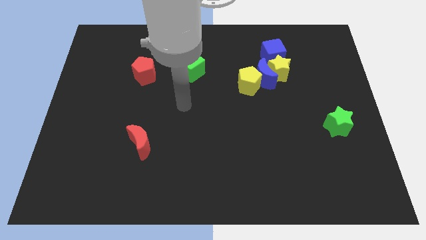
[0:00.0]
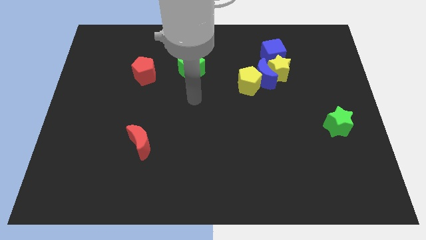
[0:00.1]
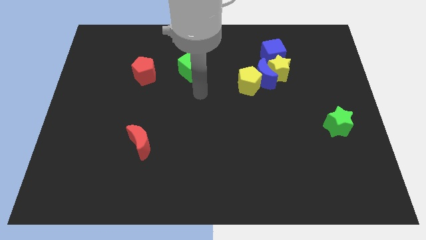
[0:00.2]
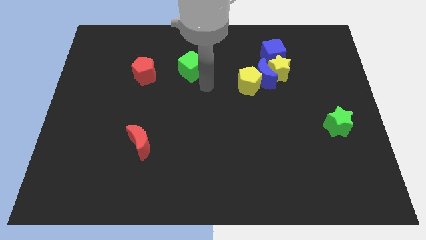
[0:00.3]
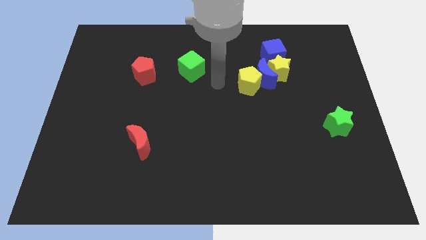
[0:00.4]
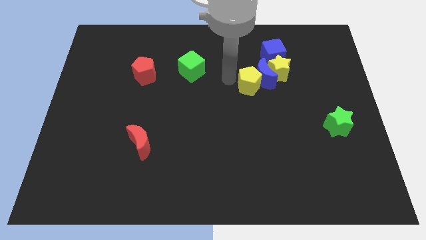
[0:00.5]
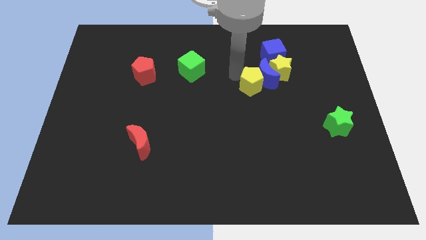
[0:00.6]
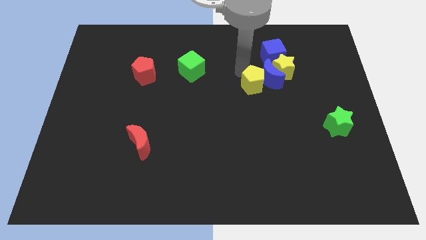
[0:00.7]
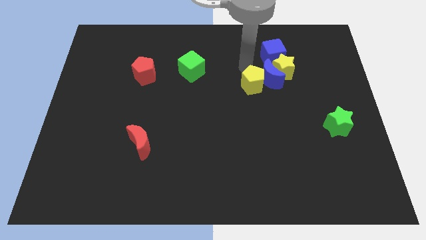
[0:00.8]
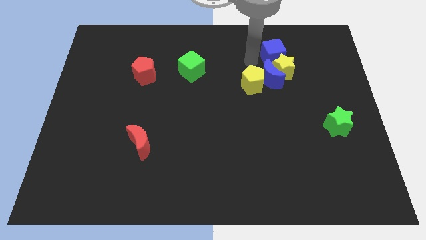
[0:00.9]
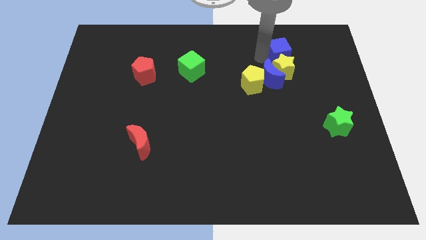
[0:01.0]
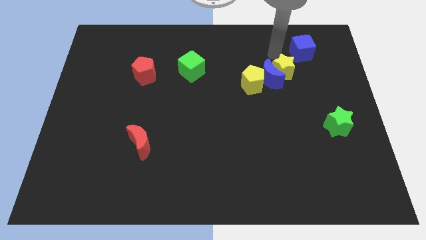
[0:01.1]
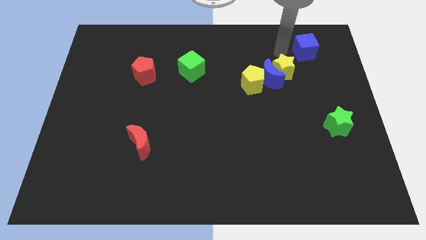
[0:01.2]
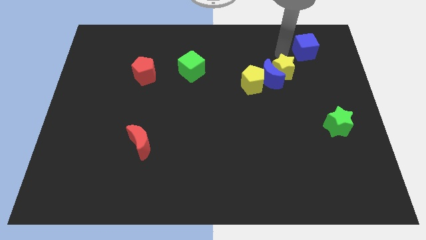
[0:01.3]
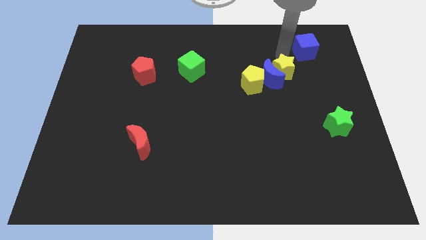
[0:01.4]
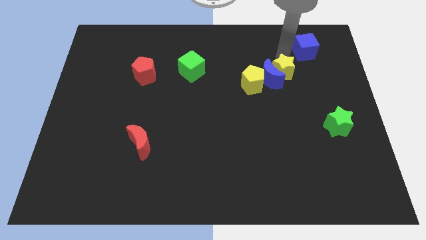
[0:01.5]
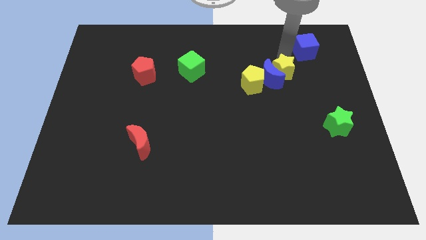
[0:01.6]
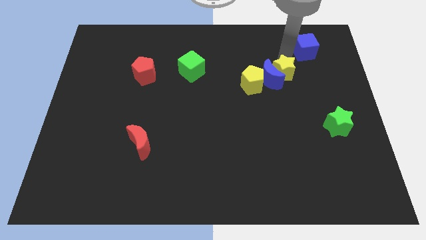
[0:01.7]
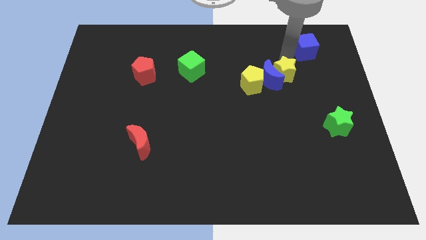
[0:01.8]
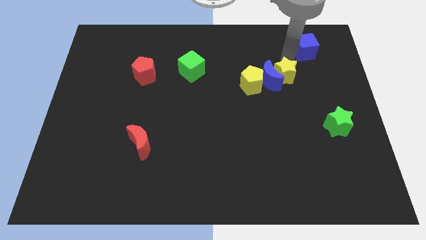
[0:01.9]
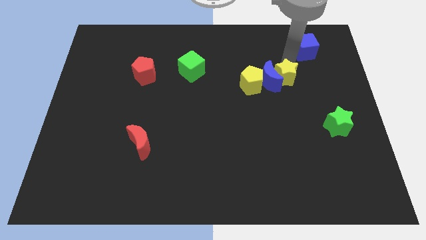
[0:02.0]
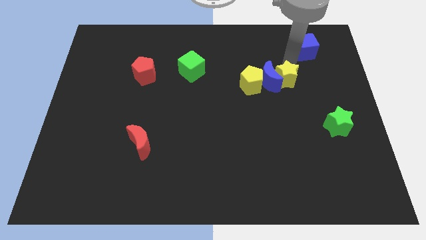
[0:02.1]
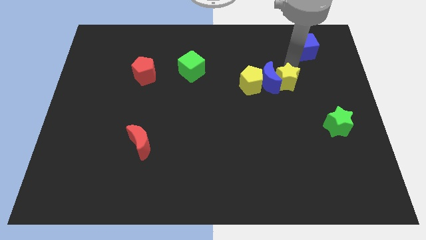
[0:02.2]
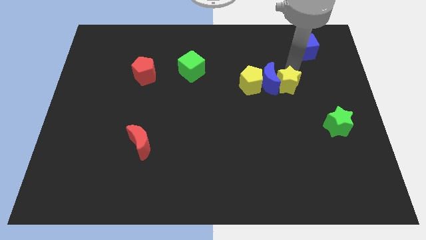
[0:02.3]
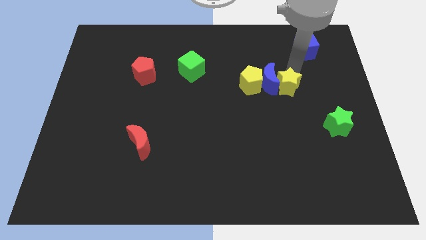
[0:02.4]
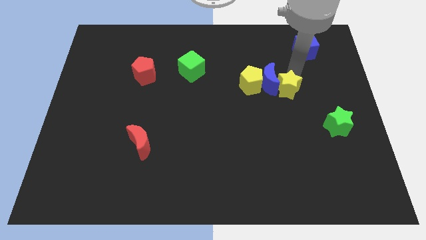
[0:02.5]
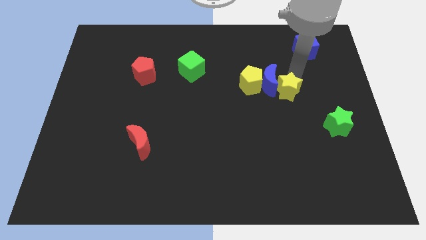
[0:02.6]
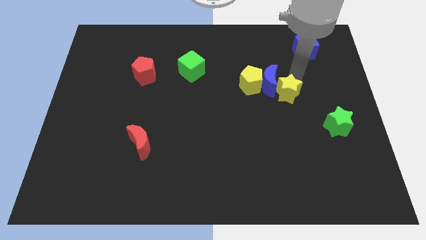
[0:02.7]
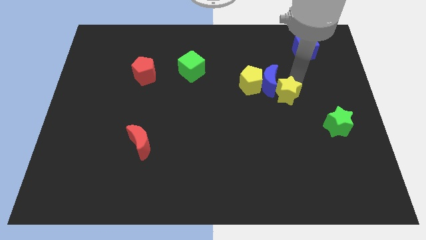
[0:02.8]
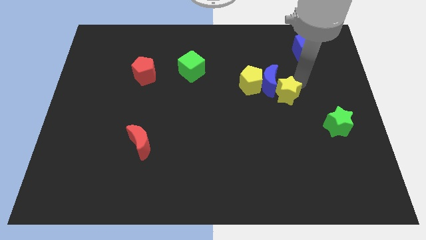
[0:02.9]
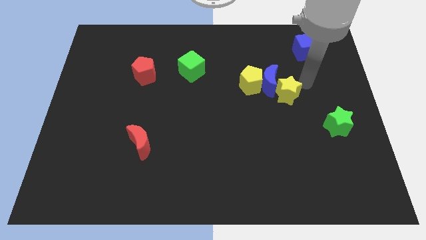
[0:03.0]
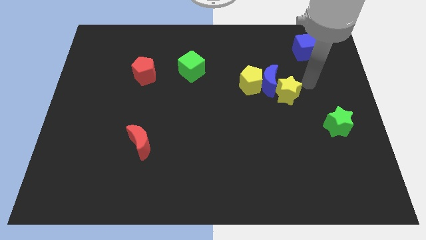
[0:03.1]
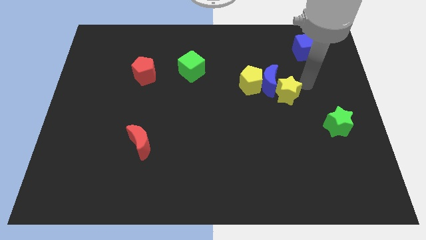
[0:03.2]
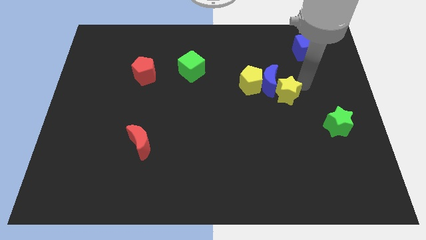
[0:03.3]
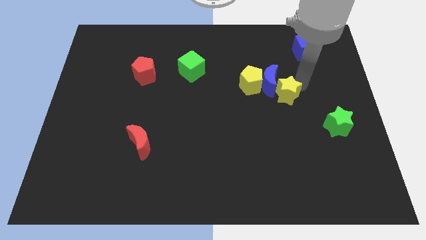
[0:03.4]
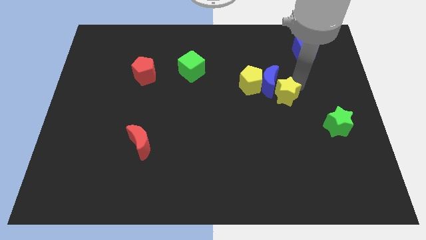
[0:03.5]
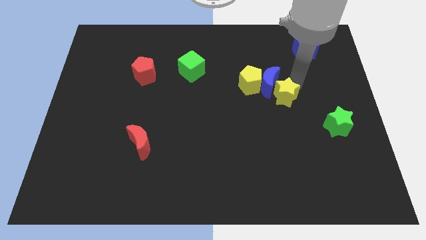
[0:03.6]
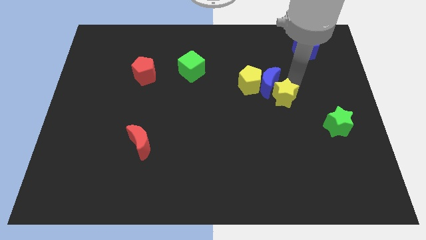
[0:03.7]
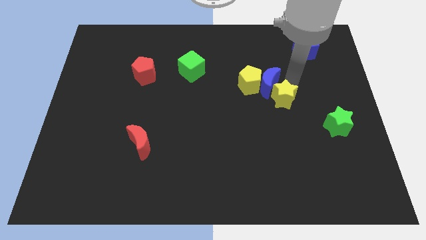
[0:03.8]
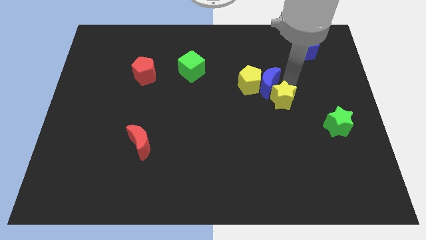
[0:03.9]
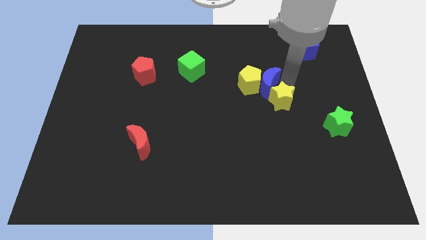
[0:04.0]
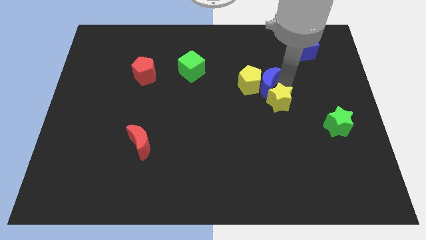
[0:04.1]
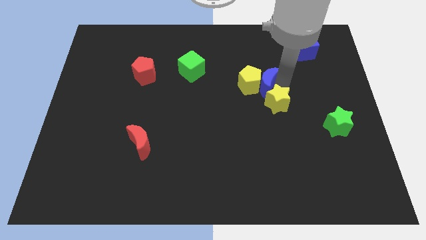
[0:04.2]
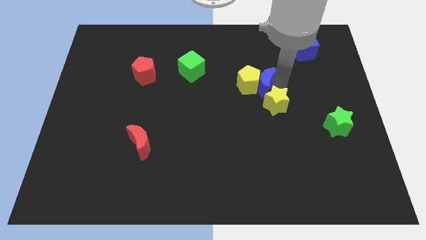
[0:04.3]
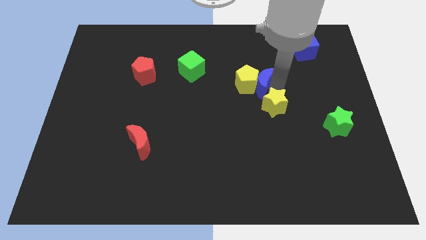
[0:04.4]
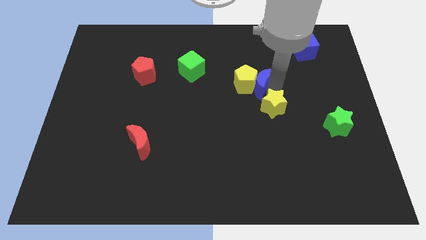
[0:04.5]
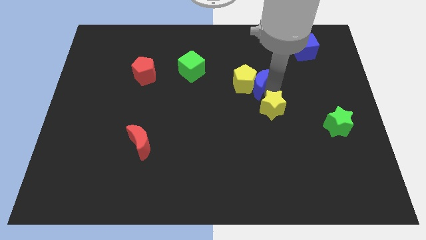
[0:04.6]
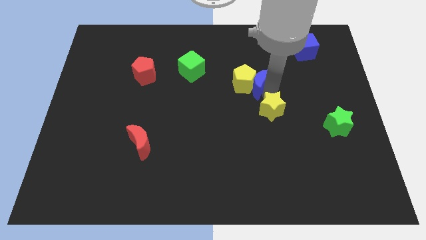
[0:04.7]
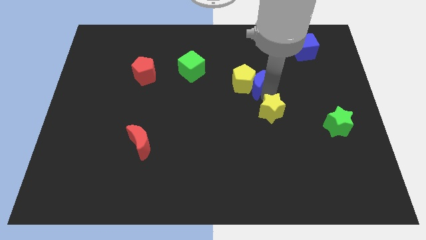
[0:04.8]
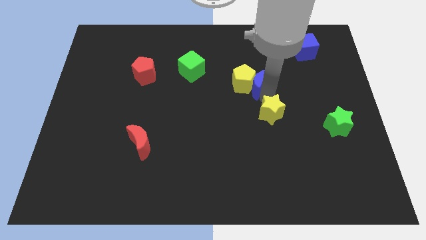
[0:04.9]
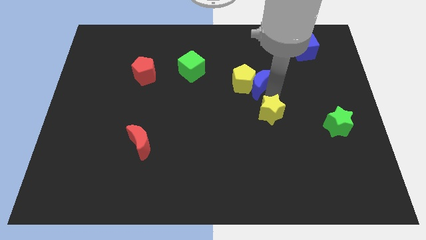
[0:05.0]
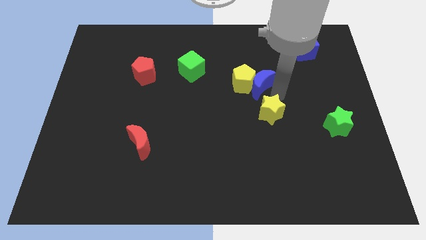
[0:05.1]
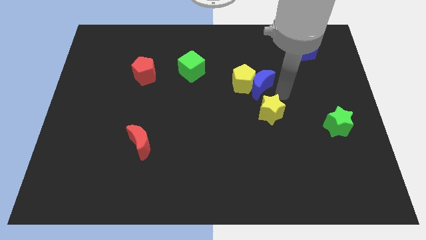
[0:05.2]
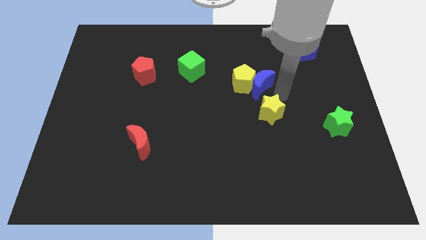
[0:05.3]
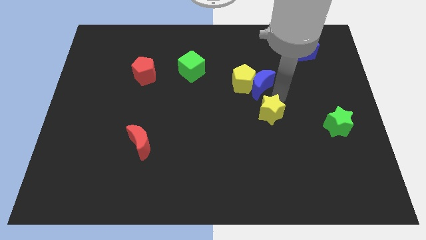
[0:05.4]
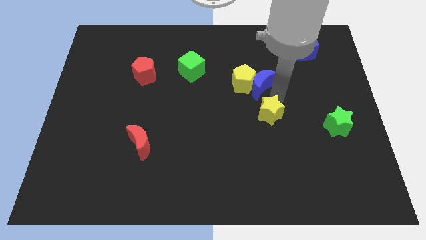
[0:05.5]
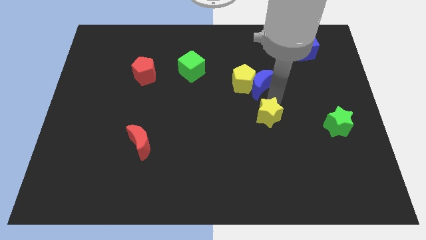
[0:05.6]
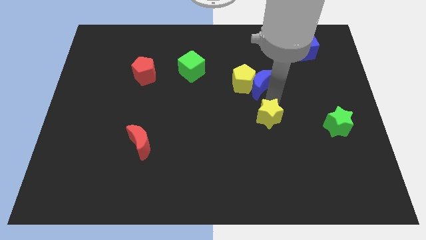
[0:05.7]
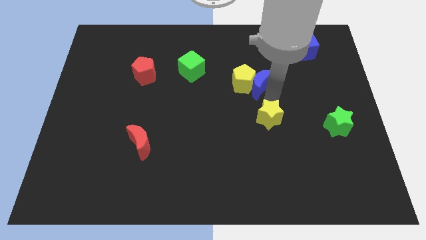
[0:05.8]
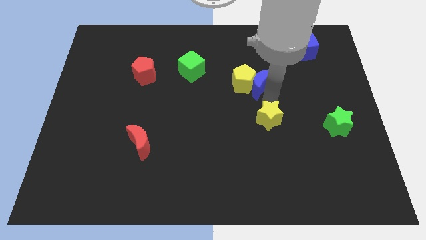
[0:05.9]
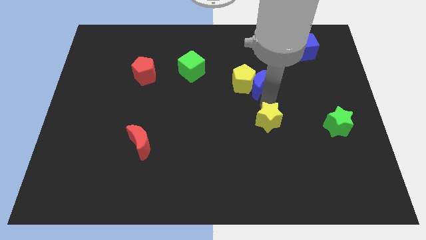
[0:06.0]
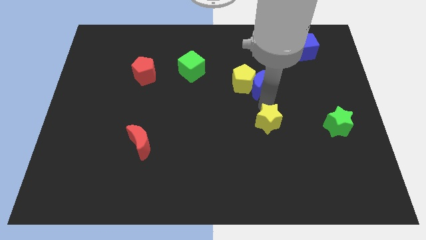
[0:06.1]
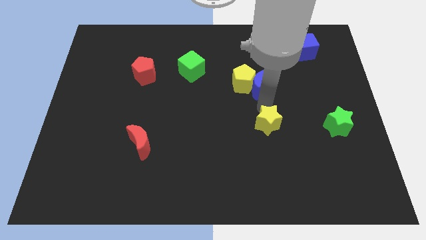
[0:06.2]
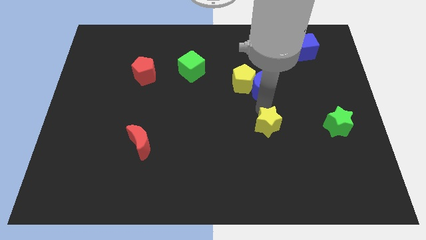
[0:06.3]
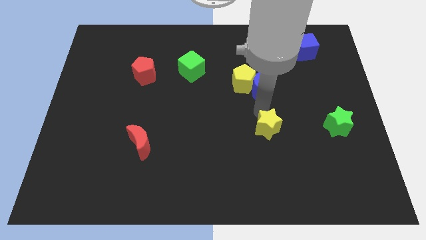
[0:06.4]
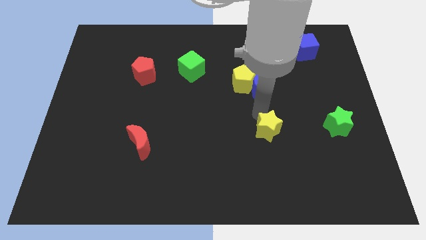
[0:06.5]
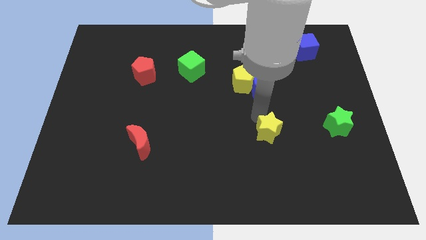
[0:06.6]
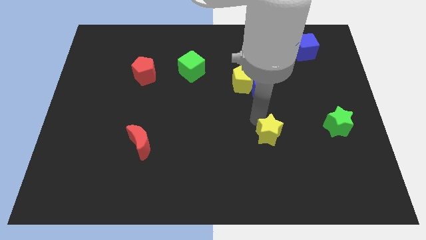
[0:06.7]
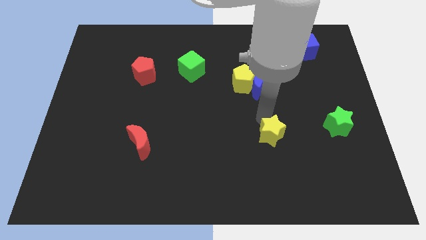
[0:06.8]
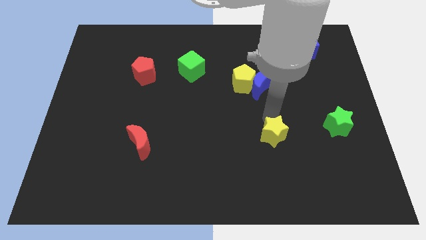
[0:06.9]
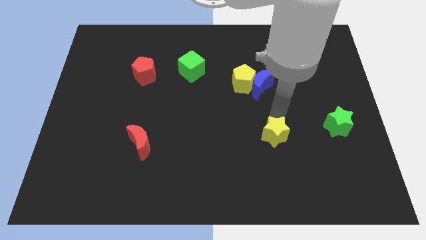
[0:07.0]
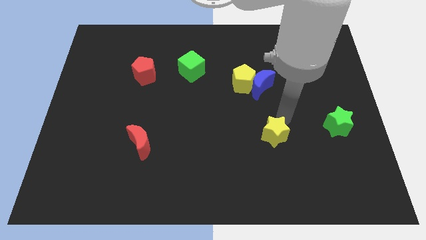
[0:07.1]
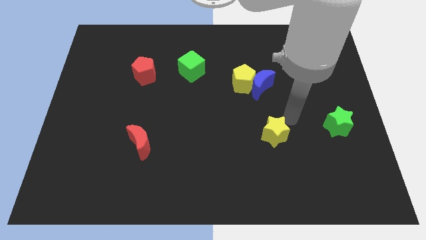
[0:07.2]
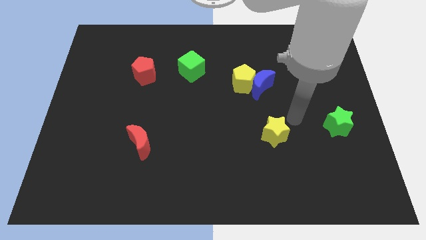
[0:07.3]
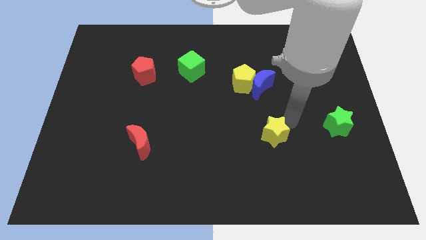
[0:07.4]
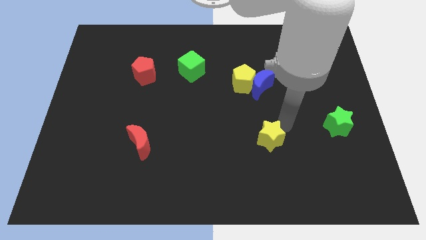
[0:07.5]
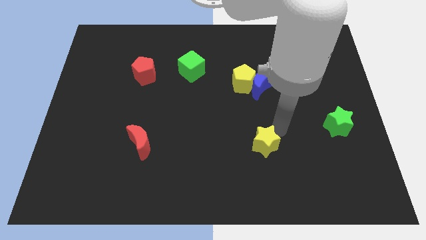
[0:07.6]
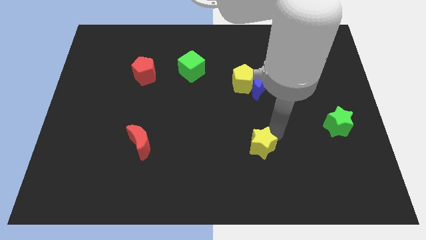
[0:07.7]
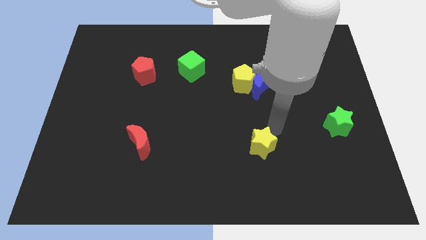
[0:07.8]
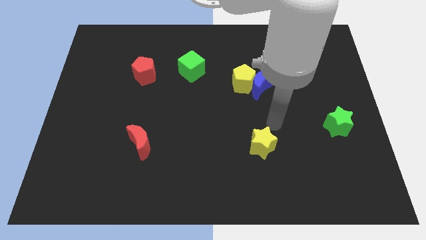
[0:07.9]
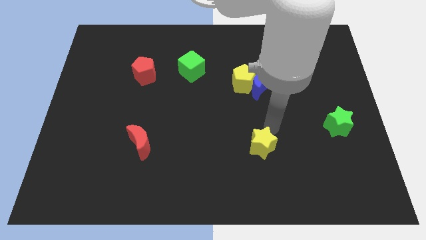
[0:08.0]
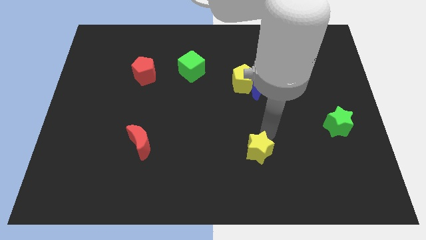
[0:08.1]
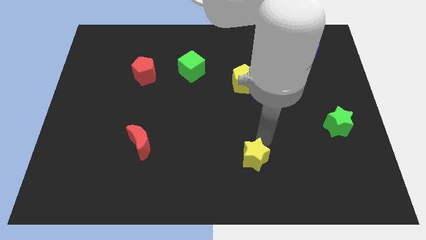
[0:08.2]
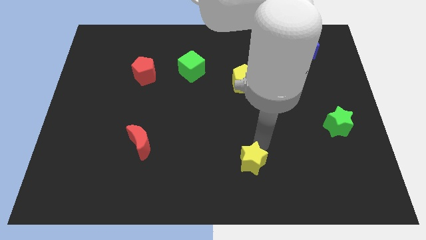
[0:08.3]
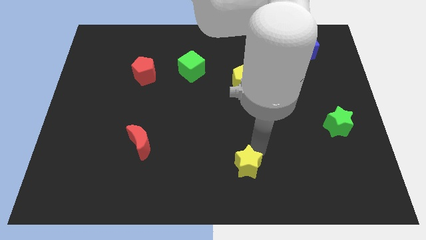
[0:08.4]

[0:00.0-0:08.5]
move the yellow star to the bottom
